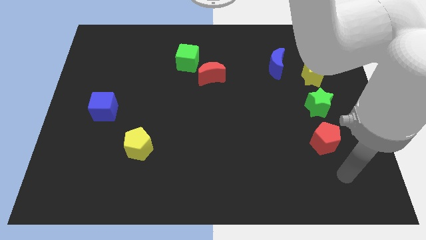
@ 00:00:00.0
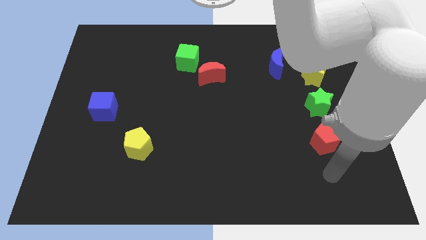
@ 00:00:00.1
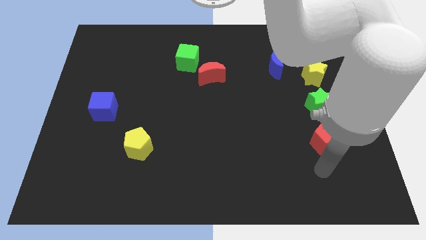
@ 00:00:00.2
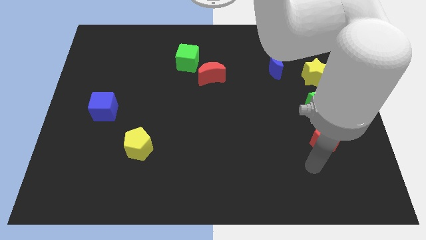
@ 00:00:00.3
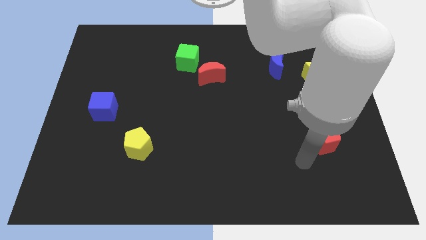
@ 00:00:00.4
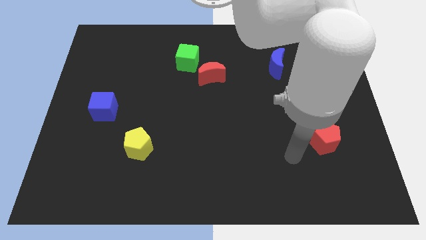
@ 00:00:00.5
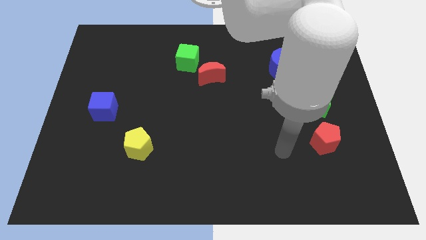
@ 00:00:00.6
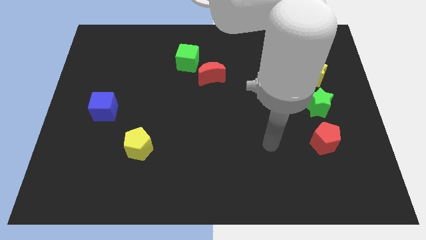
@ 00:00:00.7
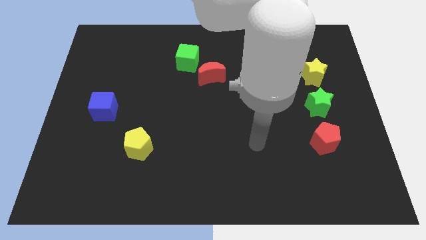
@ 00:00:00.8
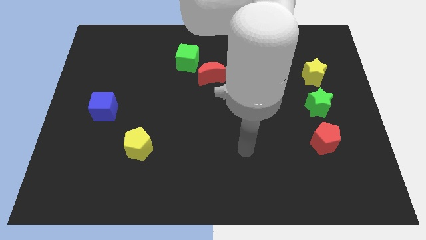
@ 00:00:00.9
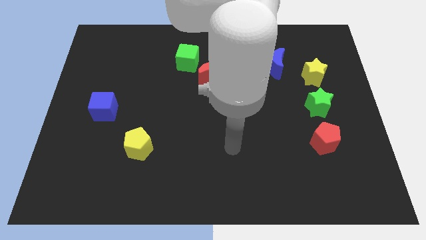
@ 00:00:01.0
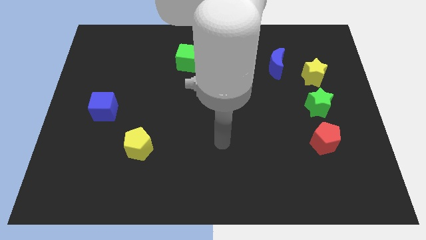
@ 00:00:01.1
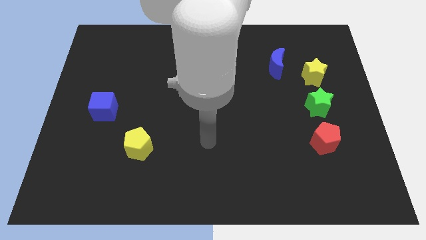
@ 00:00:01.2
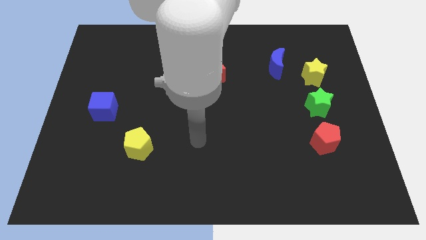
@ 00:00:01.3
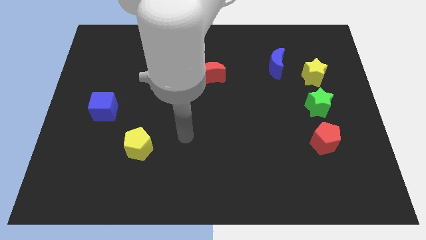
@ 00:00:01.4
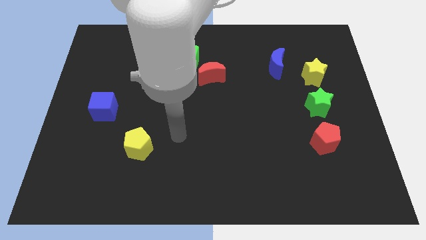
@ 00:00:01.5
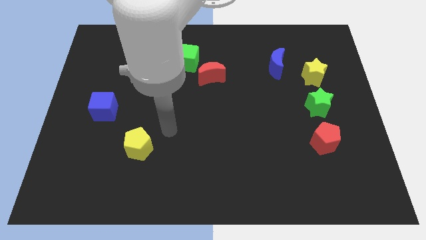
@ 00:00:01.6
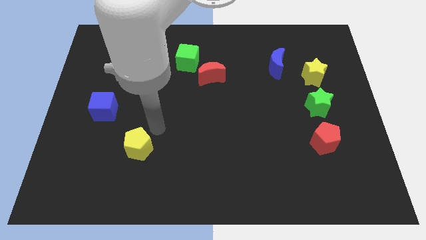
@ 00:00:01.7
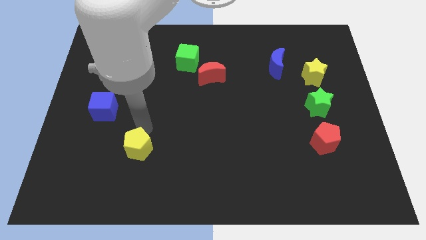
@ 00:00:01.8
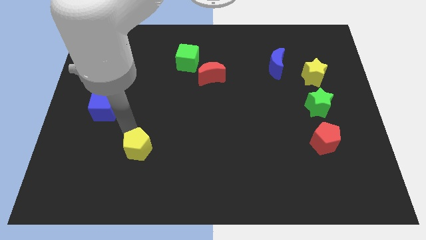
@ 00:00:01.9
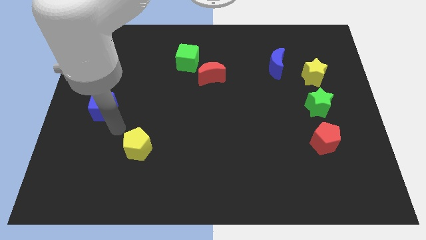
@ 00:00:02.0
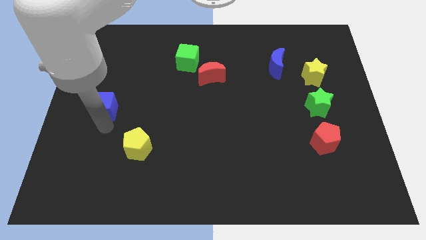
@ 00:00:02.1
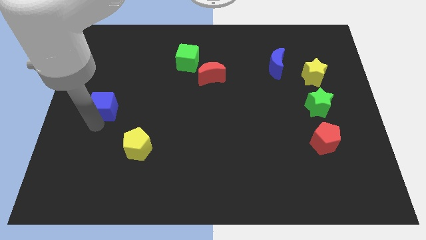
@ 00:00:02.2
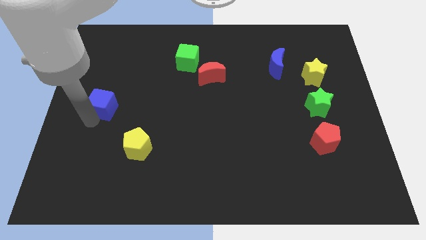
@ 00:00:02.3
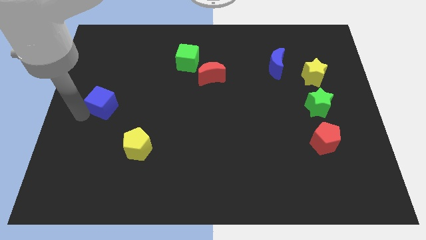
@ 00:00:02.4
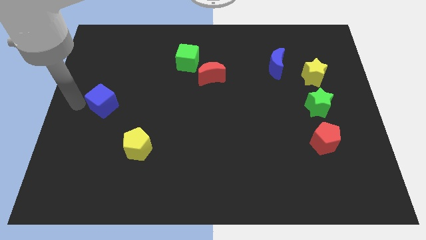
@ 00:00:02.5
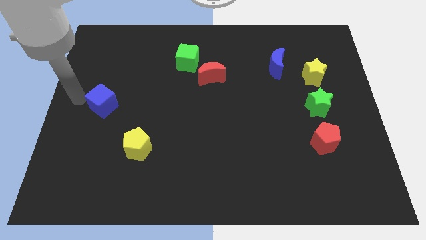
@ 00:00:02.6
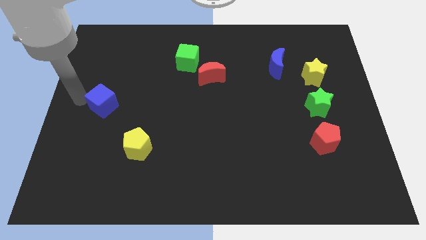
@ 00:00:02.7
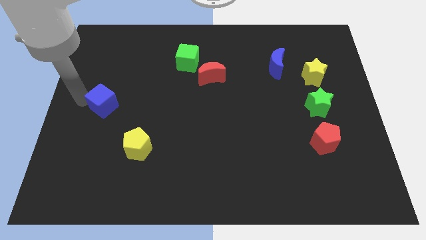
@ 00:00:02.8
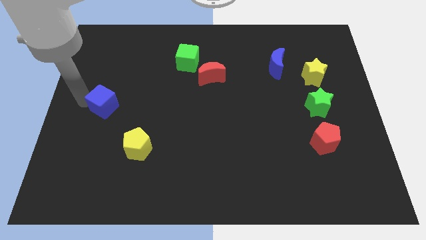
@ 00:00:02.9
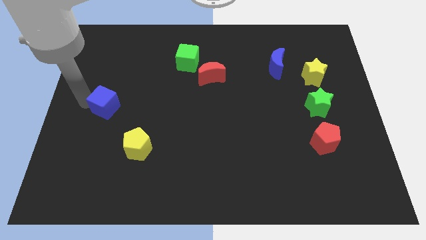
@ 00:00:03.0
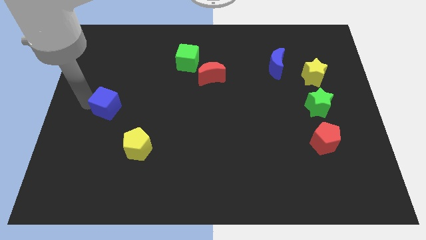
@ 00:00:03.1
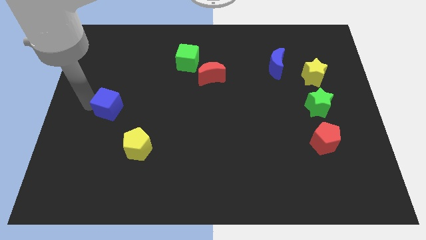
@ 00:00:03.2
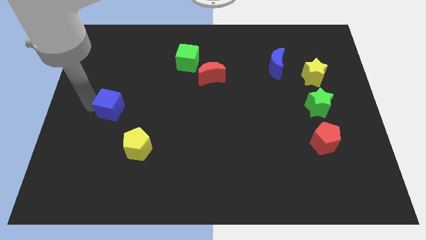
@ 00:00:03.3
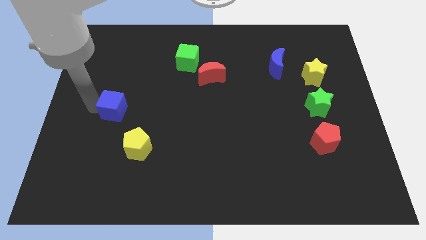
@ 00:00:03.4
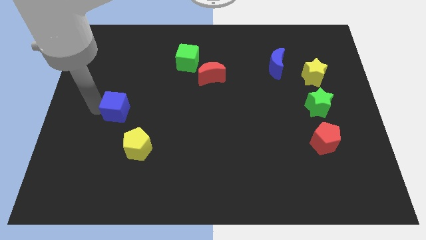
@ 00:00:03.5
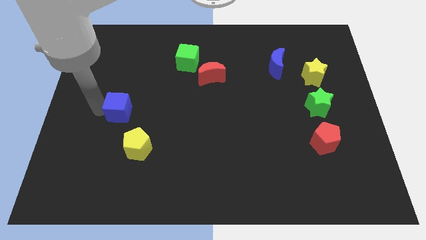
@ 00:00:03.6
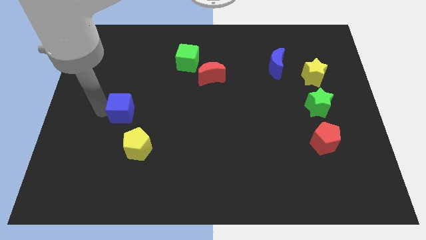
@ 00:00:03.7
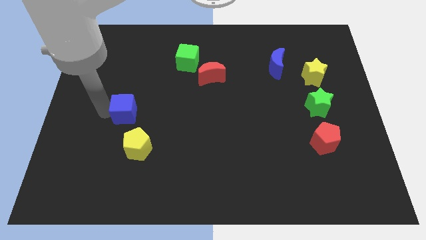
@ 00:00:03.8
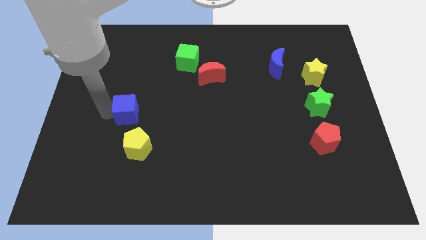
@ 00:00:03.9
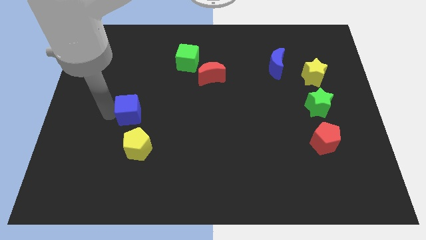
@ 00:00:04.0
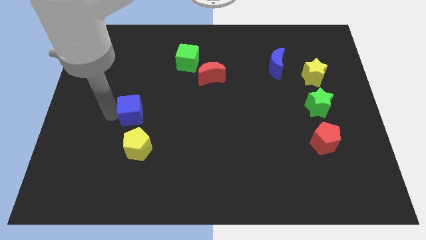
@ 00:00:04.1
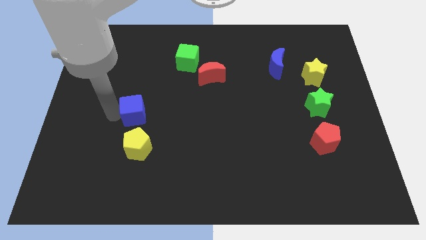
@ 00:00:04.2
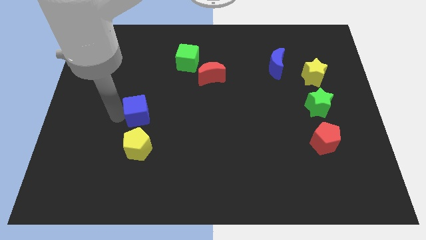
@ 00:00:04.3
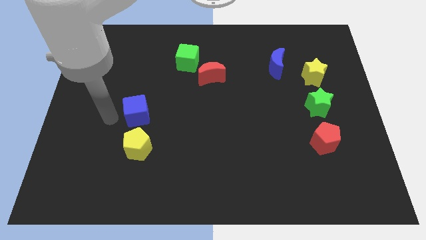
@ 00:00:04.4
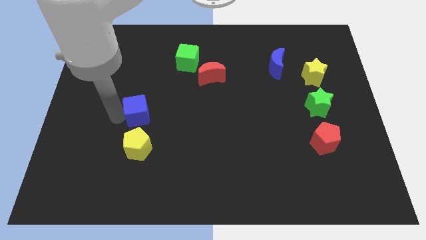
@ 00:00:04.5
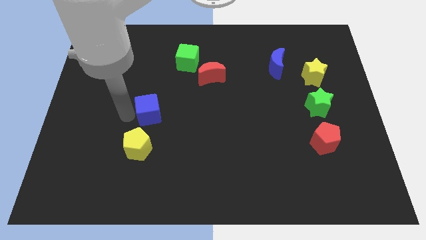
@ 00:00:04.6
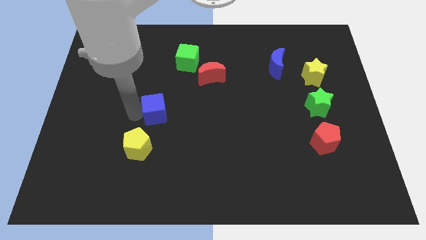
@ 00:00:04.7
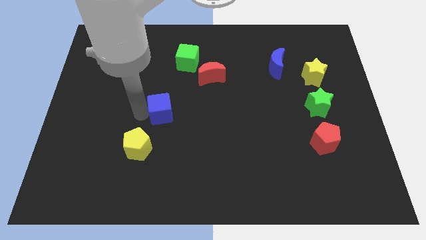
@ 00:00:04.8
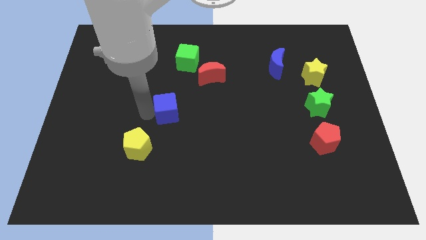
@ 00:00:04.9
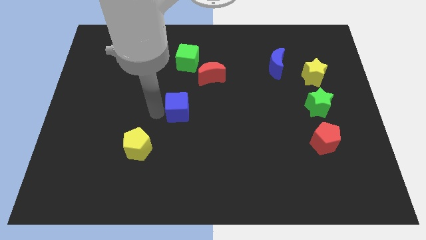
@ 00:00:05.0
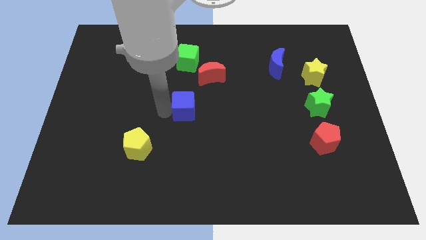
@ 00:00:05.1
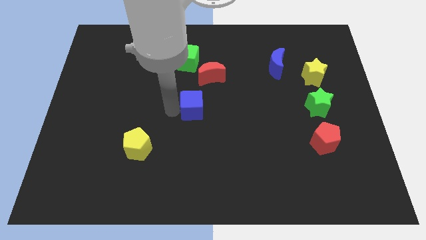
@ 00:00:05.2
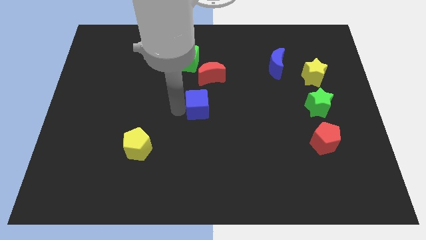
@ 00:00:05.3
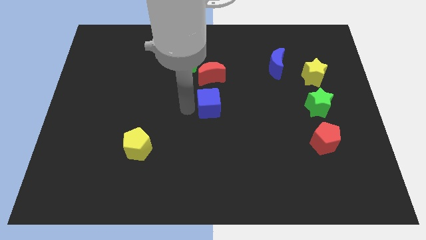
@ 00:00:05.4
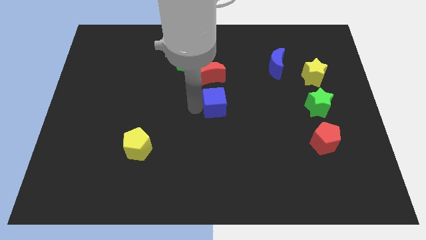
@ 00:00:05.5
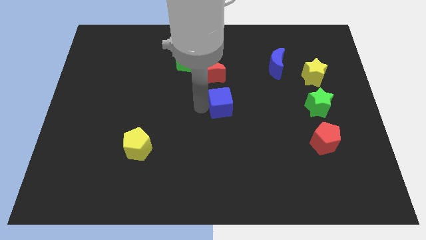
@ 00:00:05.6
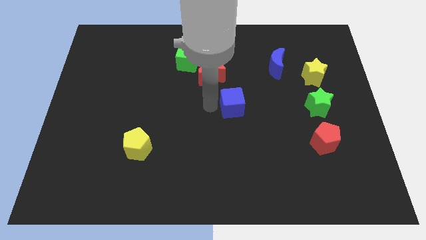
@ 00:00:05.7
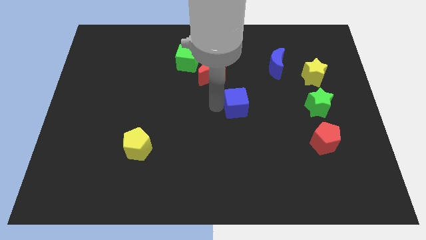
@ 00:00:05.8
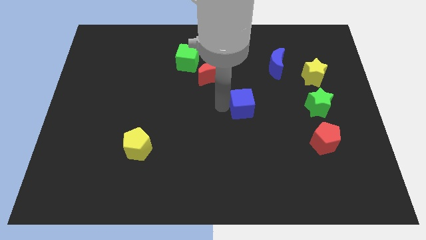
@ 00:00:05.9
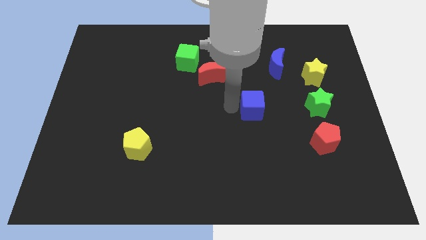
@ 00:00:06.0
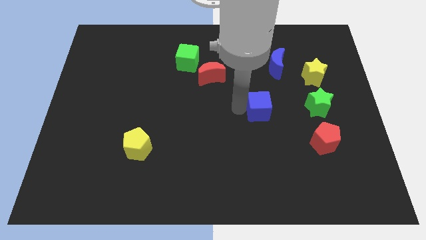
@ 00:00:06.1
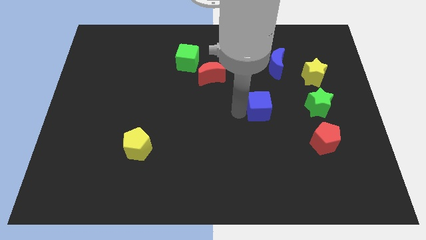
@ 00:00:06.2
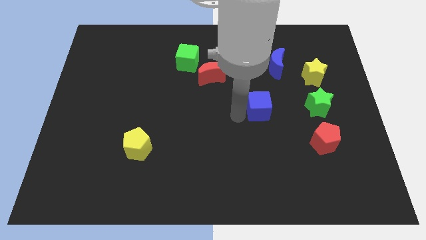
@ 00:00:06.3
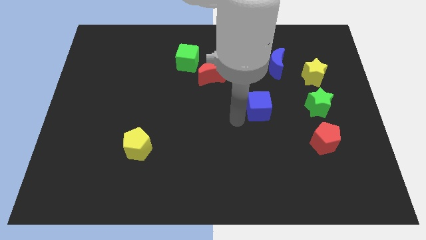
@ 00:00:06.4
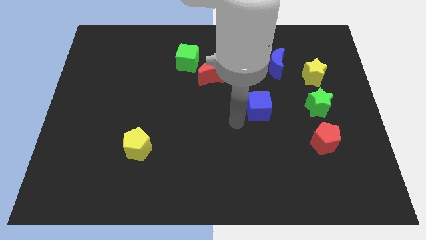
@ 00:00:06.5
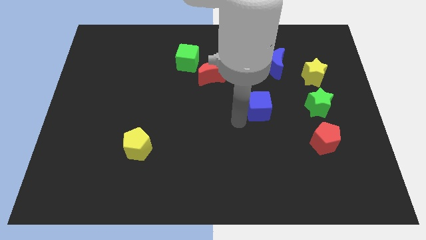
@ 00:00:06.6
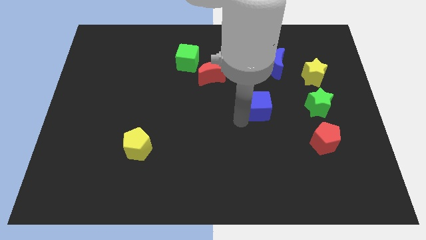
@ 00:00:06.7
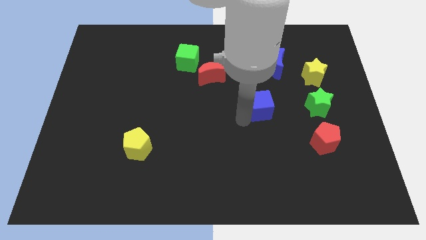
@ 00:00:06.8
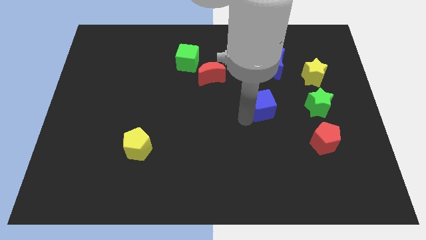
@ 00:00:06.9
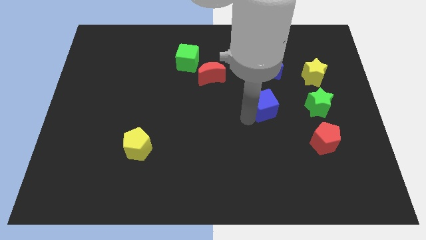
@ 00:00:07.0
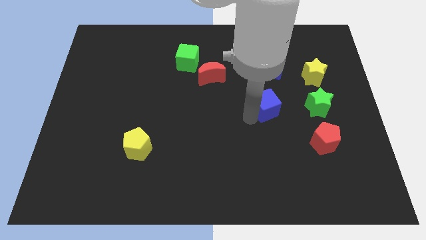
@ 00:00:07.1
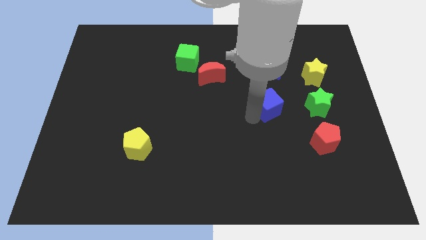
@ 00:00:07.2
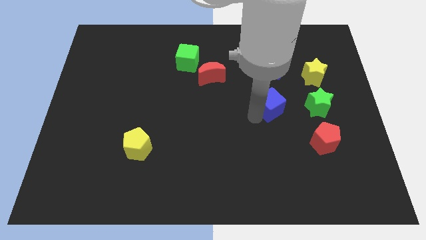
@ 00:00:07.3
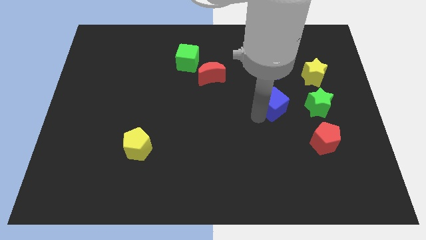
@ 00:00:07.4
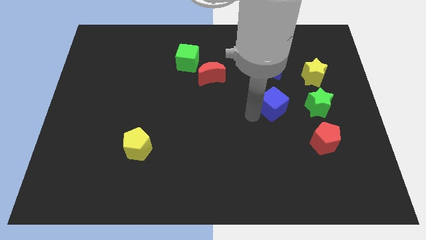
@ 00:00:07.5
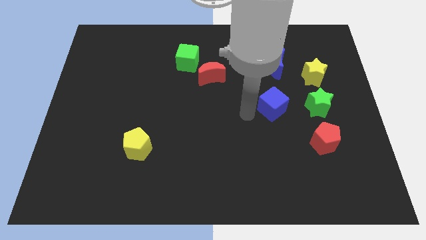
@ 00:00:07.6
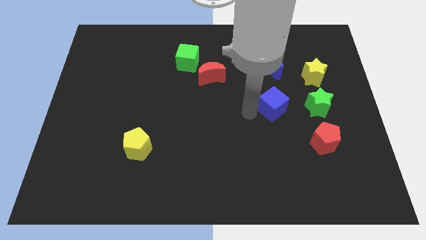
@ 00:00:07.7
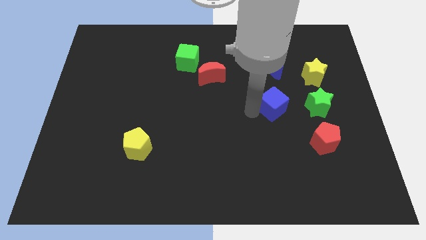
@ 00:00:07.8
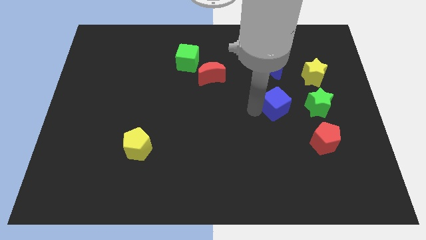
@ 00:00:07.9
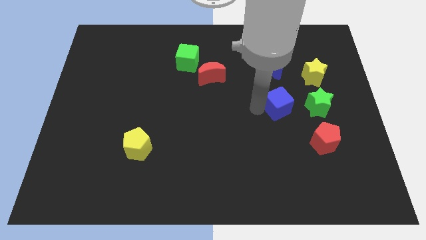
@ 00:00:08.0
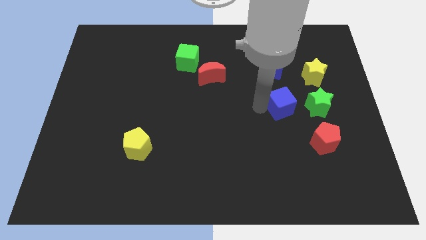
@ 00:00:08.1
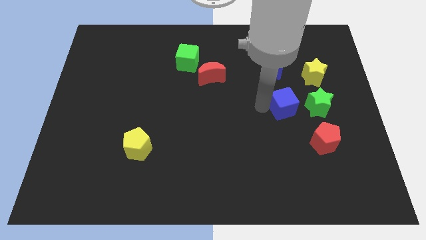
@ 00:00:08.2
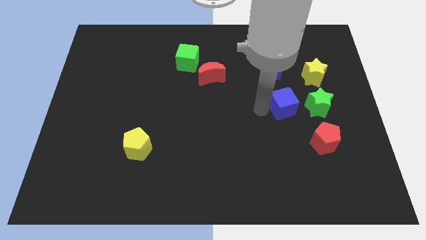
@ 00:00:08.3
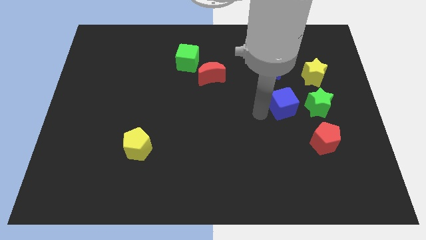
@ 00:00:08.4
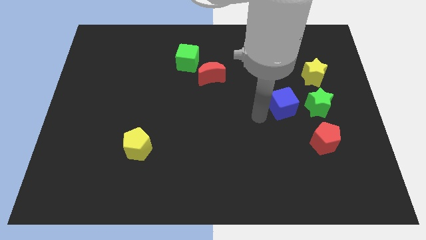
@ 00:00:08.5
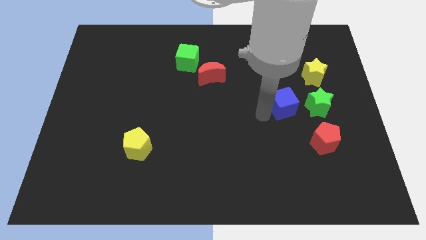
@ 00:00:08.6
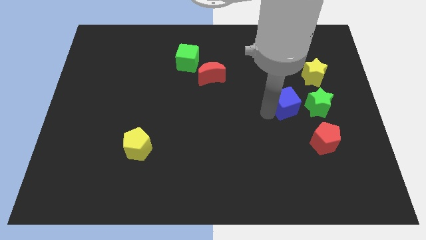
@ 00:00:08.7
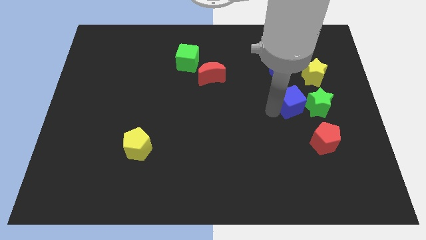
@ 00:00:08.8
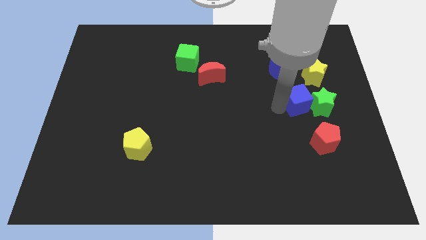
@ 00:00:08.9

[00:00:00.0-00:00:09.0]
slide the blue cube towards the green star
